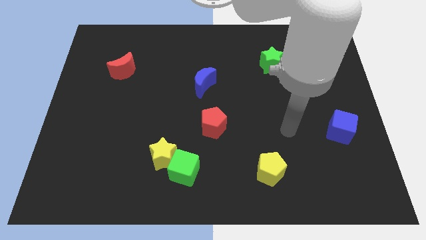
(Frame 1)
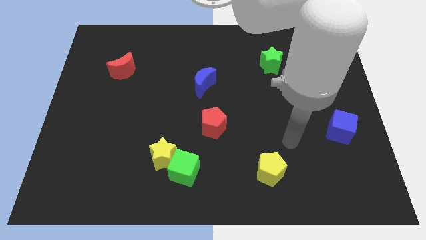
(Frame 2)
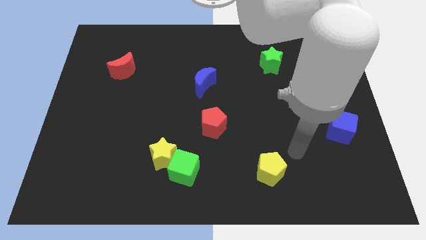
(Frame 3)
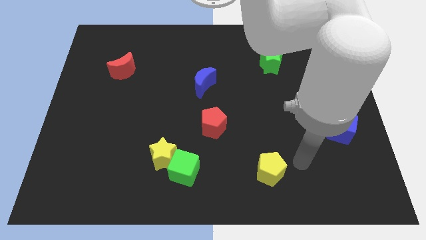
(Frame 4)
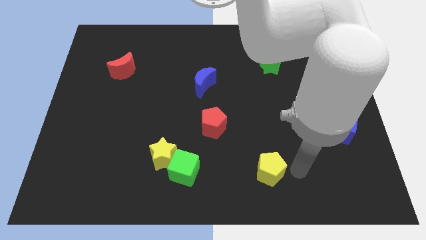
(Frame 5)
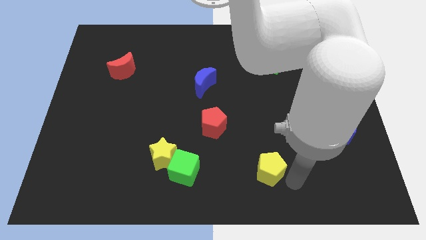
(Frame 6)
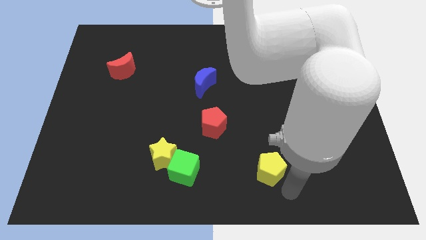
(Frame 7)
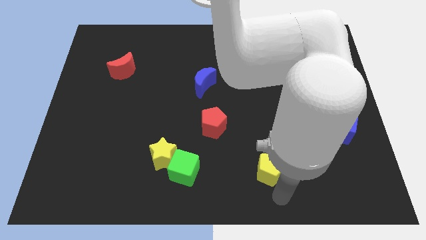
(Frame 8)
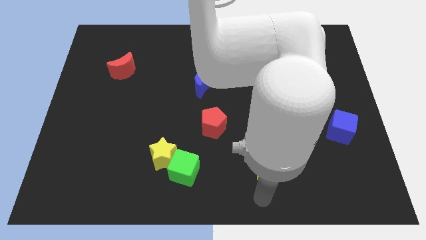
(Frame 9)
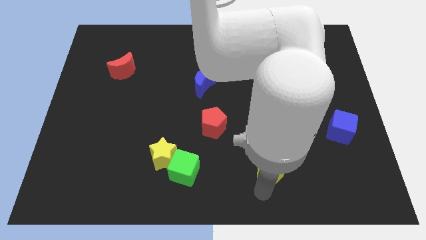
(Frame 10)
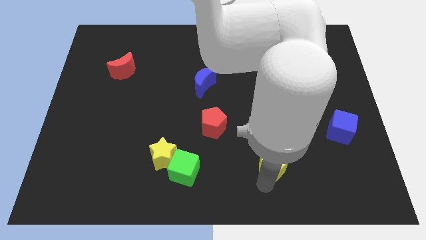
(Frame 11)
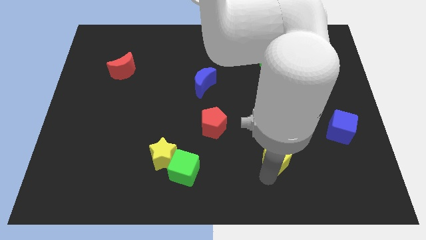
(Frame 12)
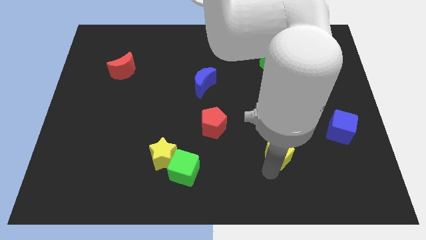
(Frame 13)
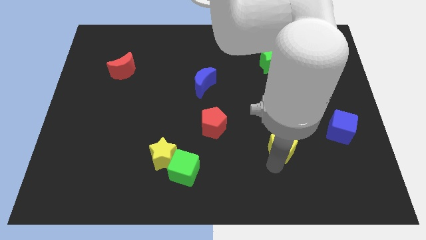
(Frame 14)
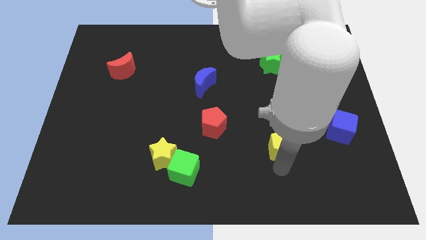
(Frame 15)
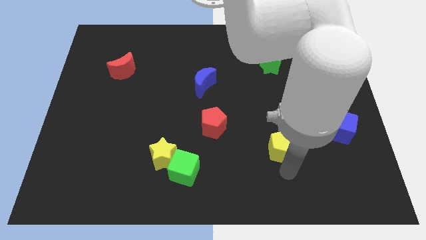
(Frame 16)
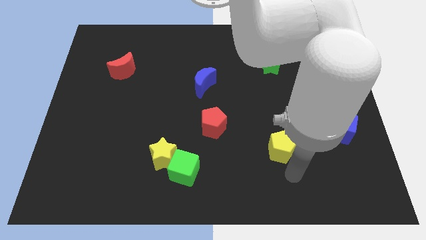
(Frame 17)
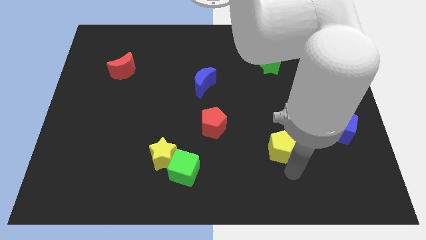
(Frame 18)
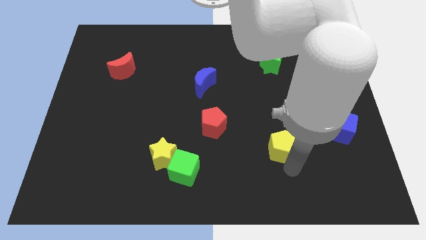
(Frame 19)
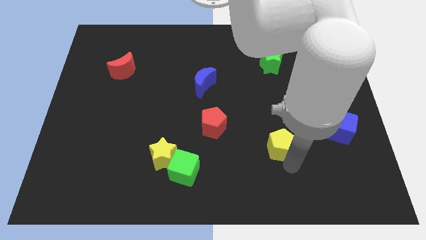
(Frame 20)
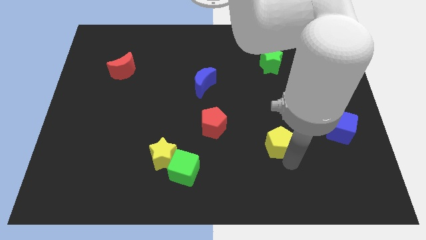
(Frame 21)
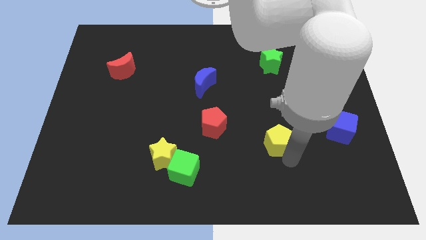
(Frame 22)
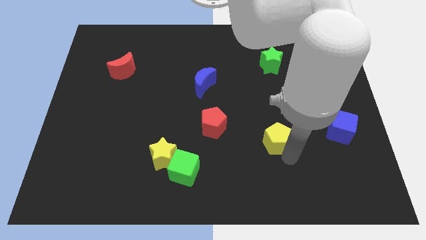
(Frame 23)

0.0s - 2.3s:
slide the yellow pentagon upwards a little

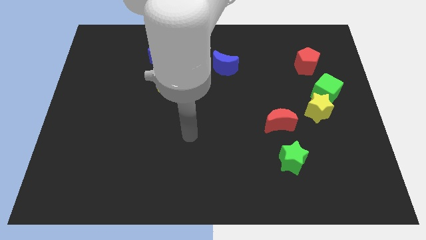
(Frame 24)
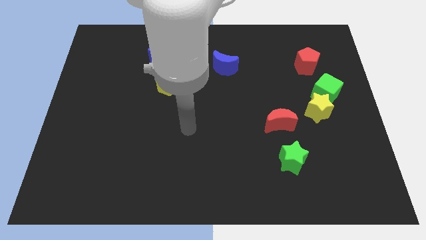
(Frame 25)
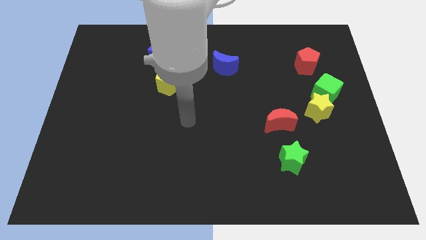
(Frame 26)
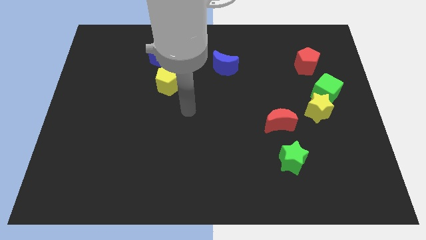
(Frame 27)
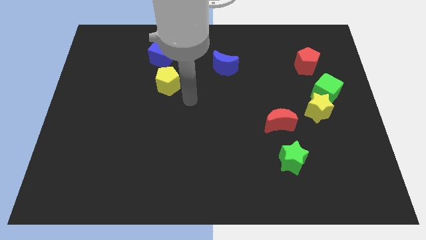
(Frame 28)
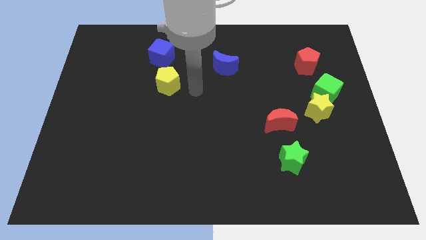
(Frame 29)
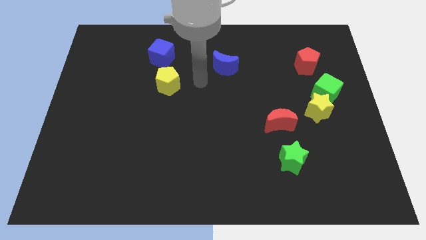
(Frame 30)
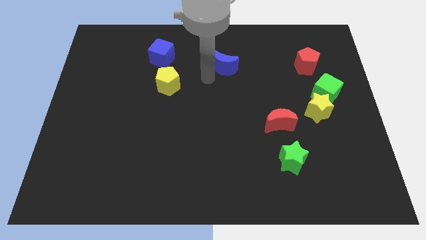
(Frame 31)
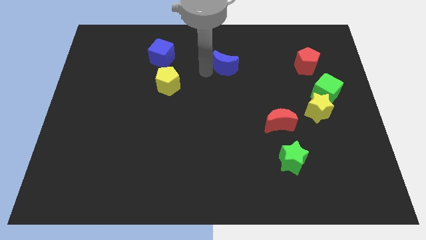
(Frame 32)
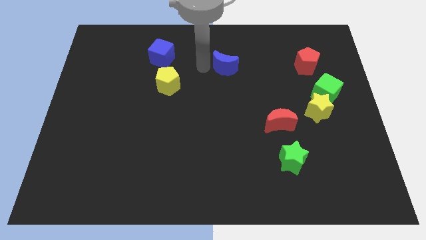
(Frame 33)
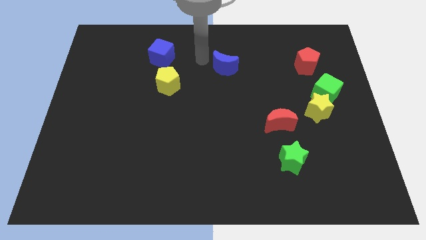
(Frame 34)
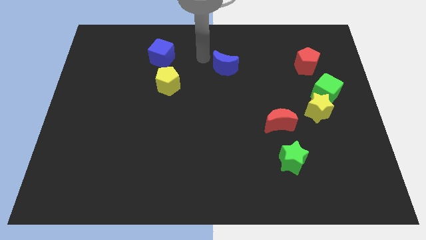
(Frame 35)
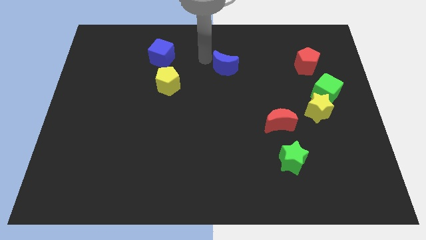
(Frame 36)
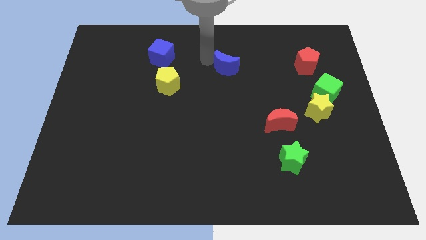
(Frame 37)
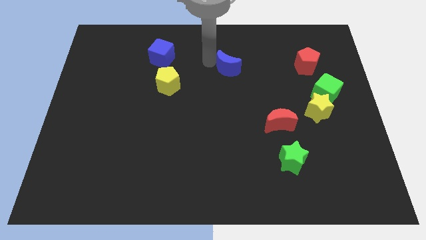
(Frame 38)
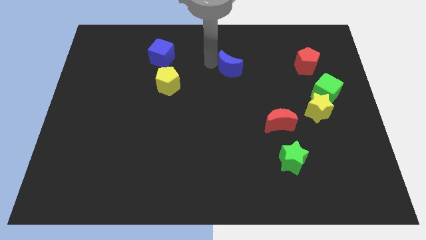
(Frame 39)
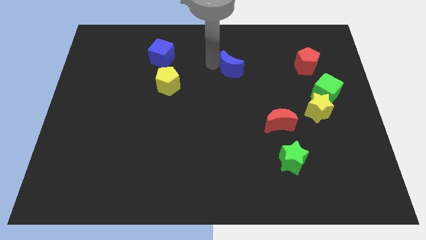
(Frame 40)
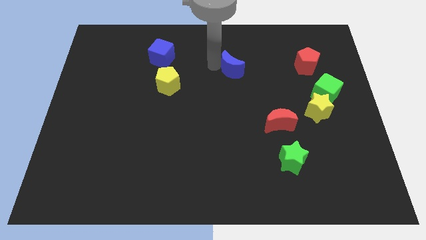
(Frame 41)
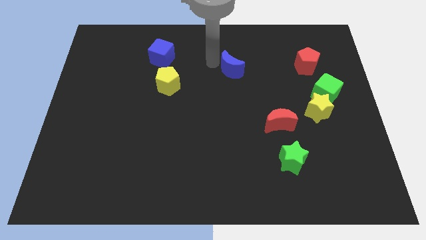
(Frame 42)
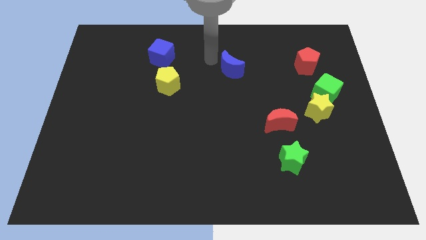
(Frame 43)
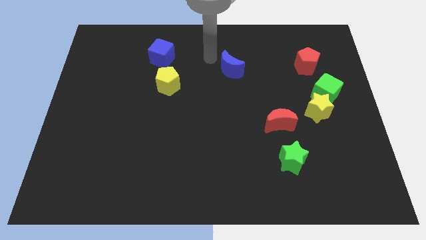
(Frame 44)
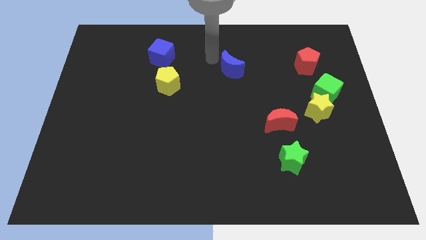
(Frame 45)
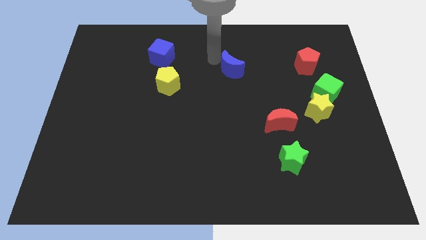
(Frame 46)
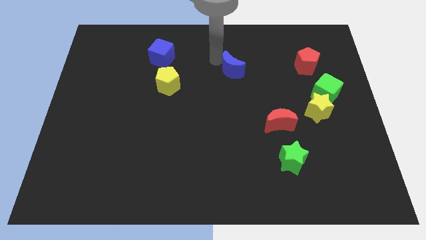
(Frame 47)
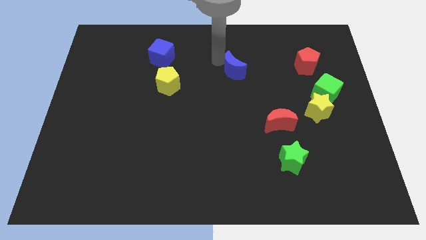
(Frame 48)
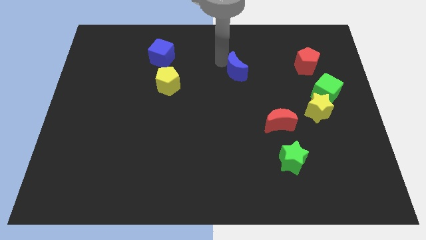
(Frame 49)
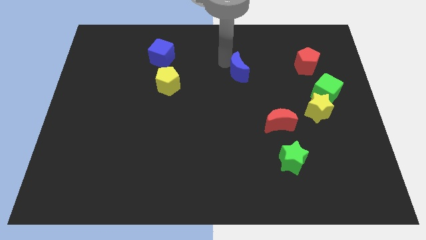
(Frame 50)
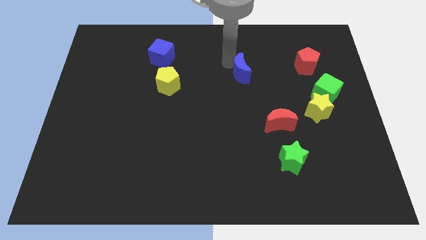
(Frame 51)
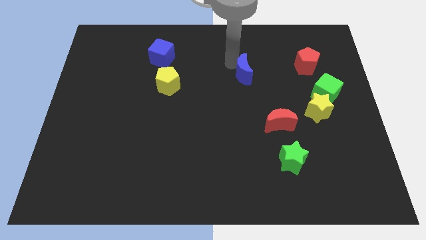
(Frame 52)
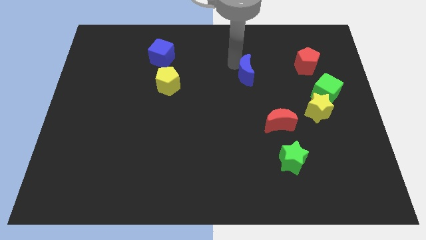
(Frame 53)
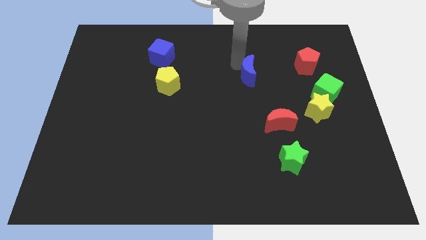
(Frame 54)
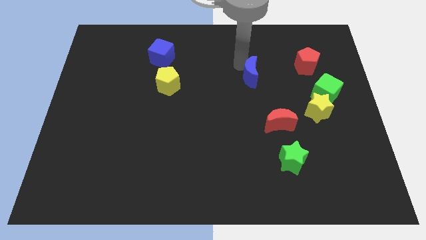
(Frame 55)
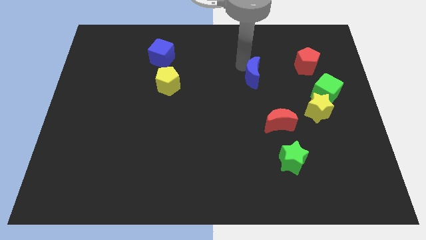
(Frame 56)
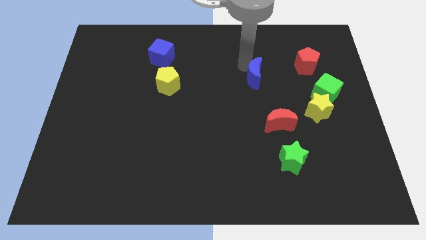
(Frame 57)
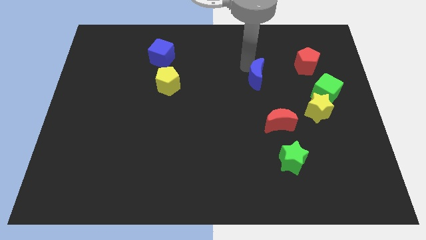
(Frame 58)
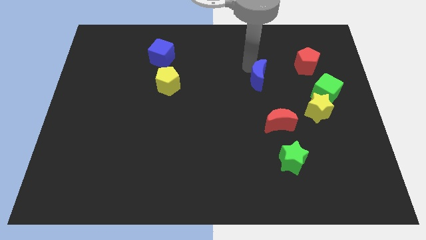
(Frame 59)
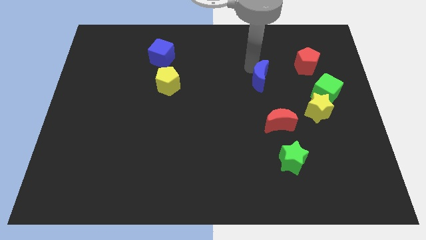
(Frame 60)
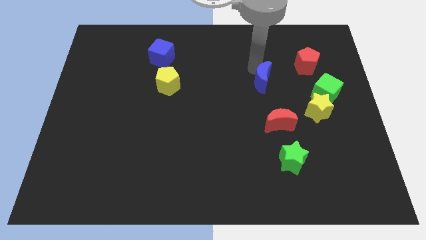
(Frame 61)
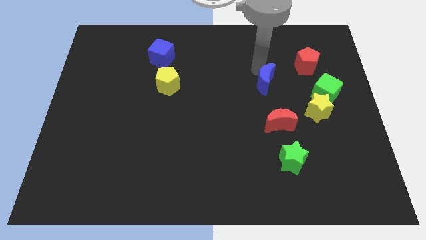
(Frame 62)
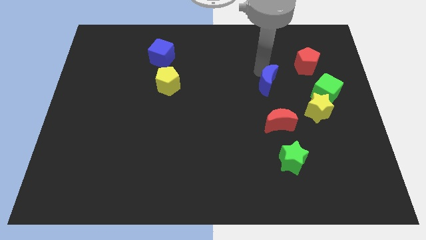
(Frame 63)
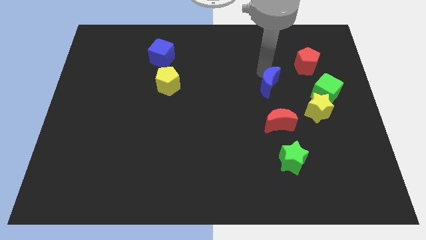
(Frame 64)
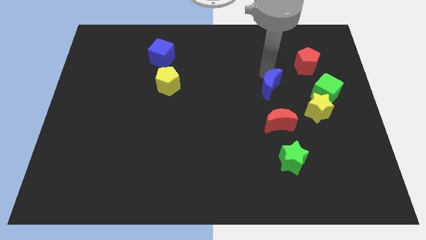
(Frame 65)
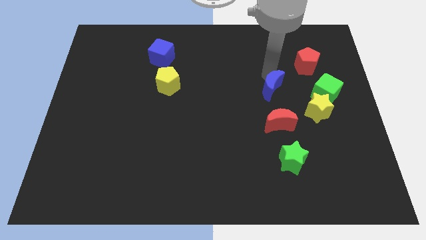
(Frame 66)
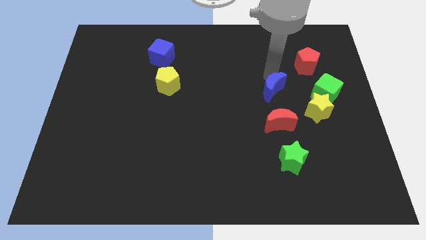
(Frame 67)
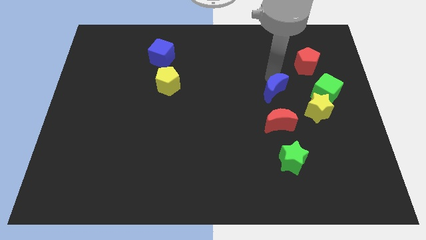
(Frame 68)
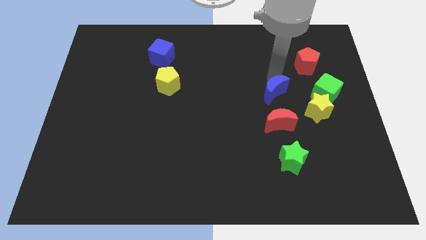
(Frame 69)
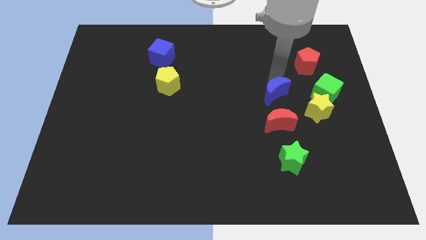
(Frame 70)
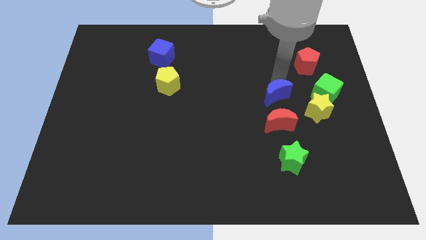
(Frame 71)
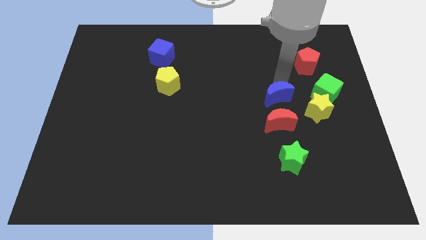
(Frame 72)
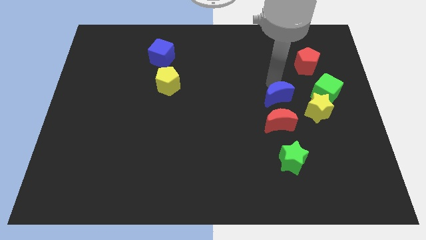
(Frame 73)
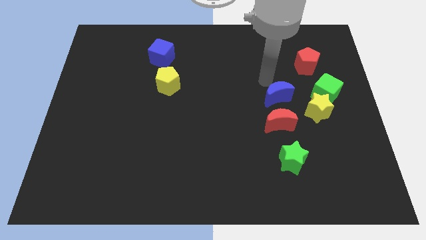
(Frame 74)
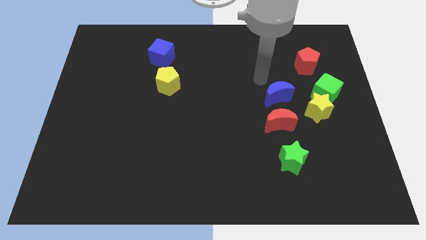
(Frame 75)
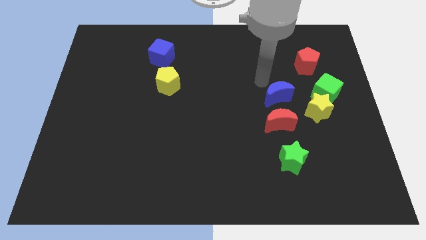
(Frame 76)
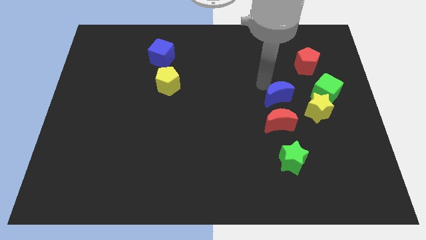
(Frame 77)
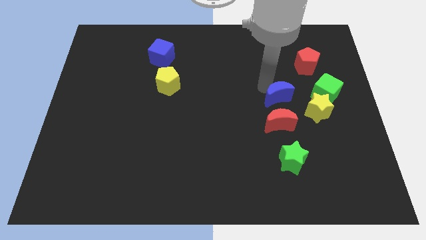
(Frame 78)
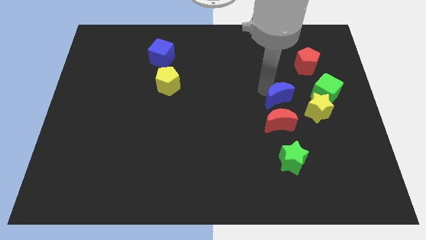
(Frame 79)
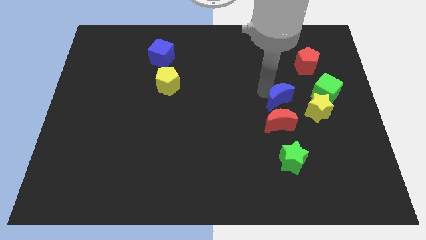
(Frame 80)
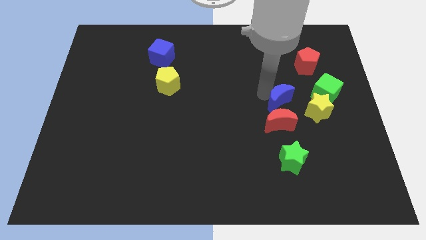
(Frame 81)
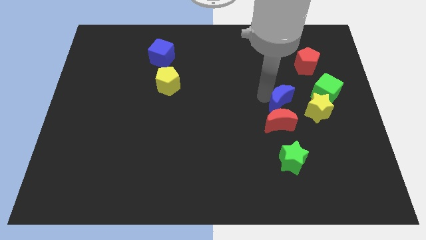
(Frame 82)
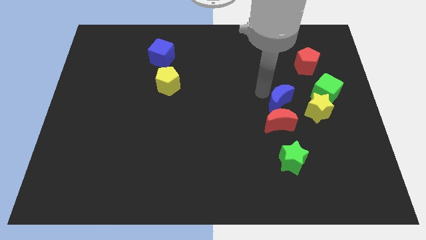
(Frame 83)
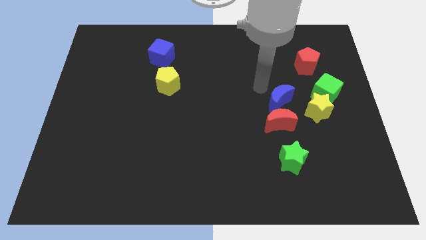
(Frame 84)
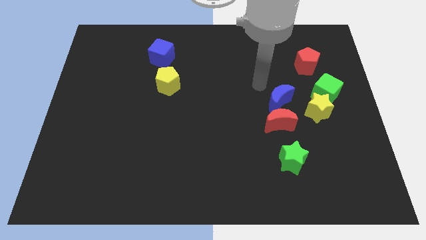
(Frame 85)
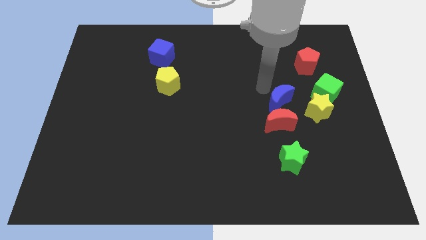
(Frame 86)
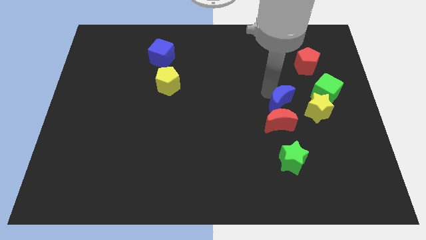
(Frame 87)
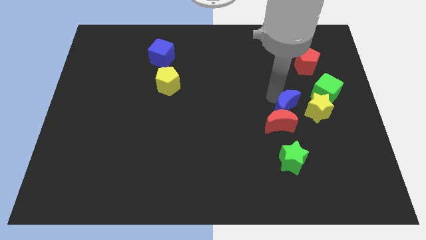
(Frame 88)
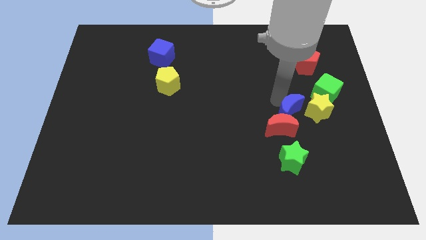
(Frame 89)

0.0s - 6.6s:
move the blue moon downwards and then to the right
